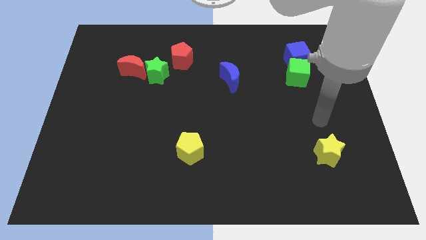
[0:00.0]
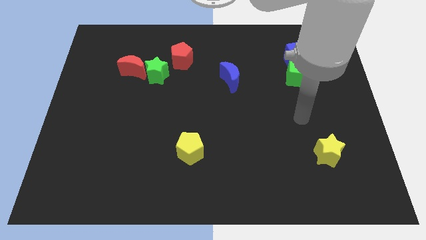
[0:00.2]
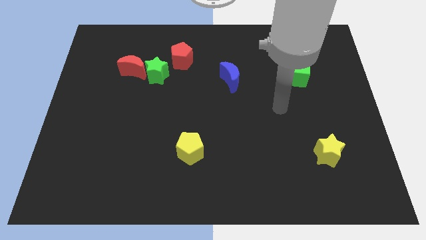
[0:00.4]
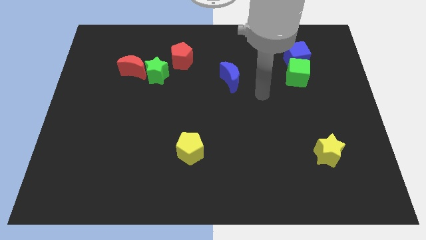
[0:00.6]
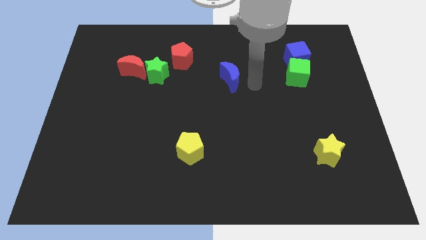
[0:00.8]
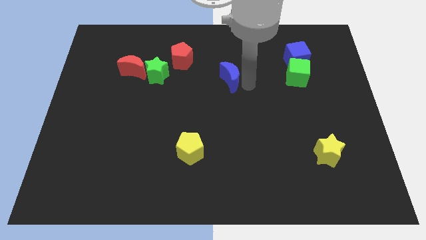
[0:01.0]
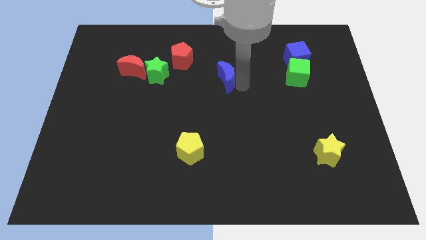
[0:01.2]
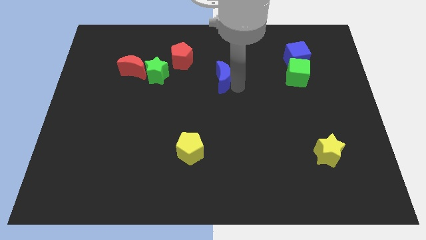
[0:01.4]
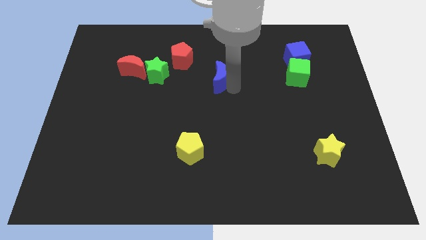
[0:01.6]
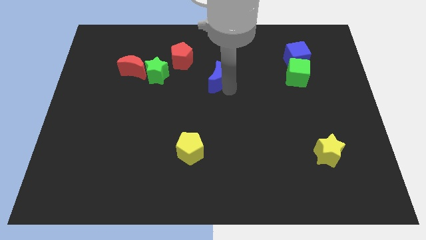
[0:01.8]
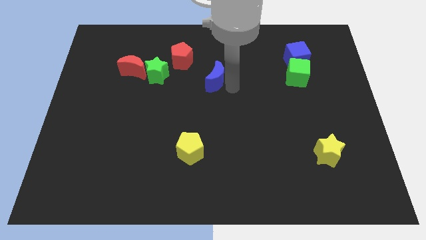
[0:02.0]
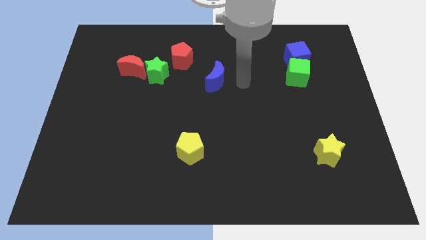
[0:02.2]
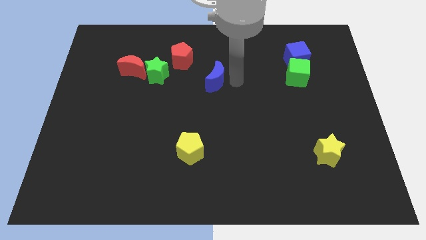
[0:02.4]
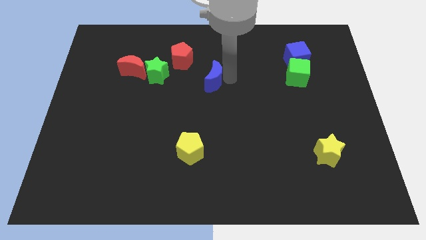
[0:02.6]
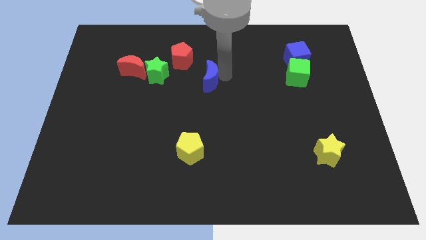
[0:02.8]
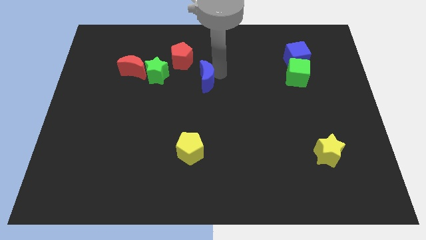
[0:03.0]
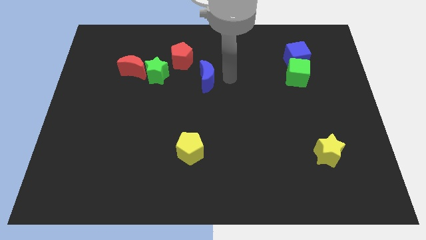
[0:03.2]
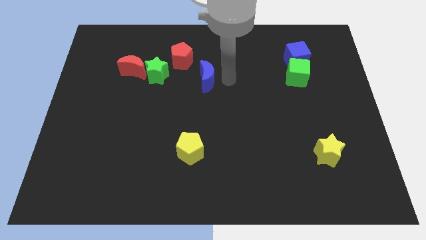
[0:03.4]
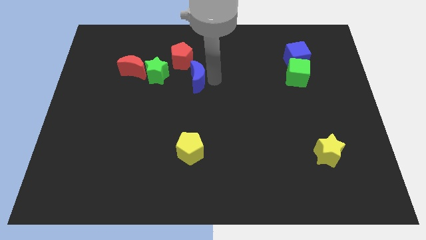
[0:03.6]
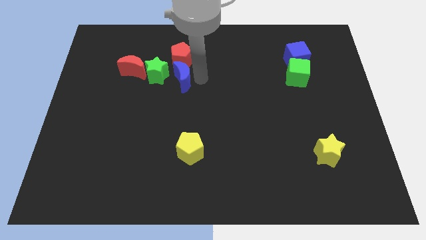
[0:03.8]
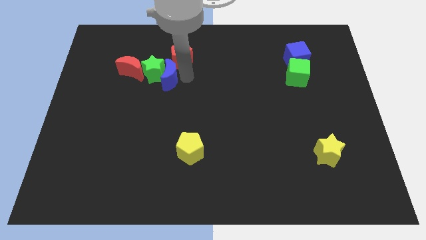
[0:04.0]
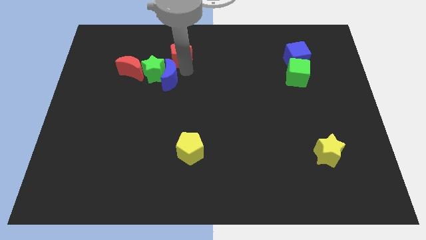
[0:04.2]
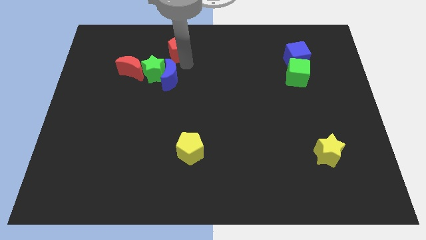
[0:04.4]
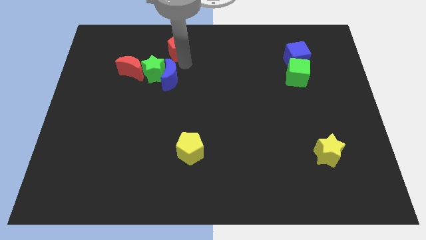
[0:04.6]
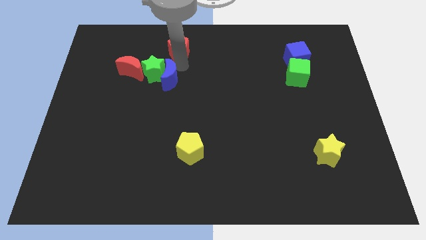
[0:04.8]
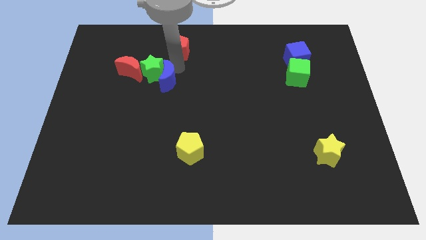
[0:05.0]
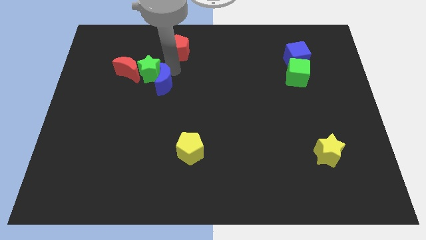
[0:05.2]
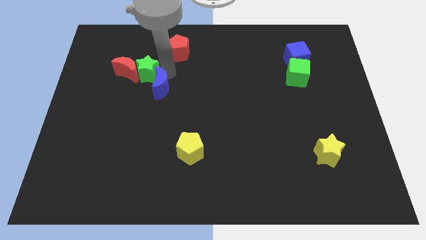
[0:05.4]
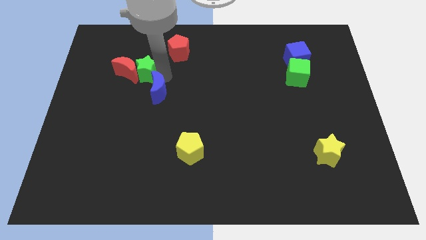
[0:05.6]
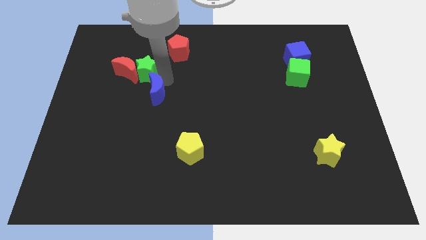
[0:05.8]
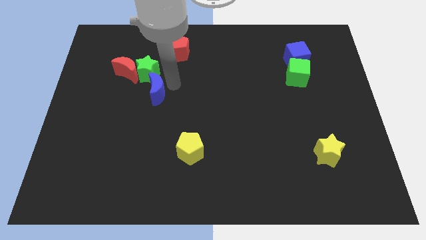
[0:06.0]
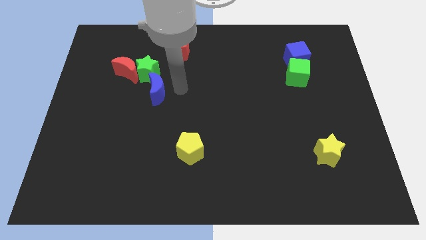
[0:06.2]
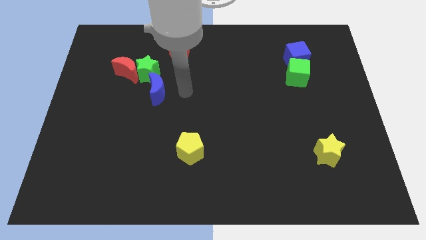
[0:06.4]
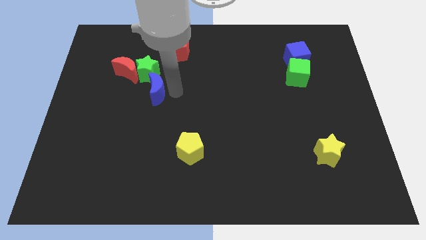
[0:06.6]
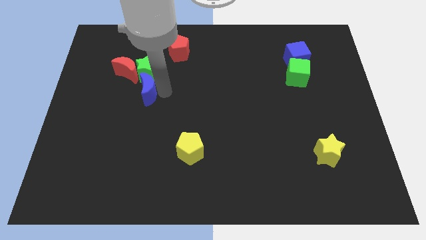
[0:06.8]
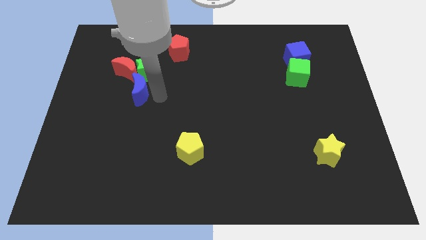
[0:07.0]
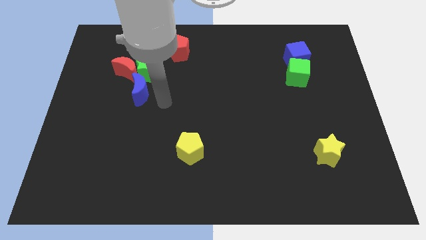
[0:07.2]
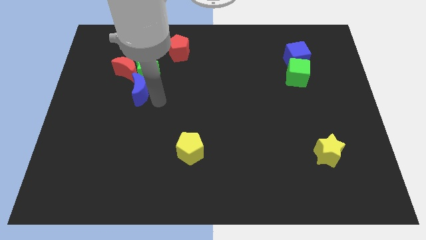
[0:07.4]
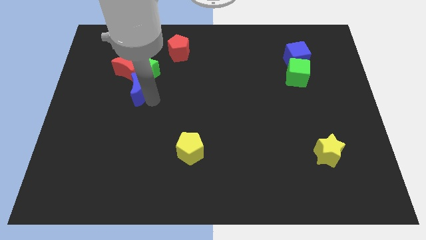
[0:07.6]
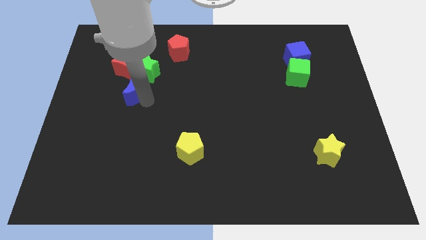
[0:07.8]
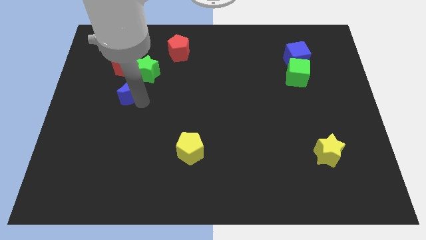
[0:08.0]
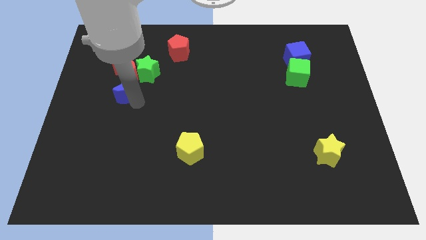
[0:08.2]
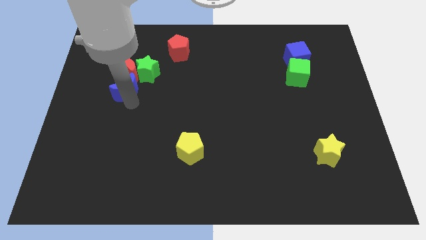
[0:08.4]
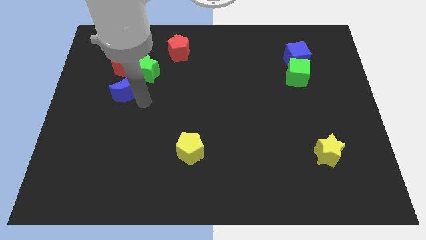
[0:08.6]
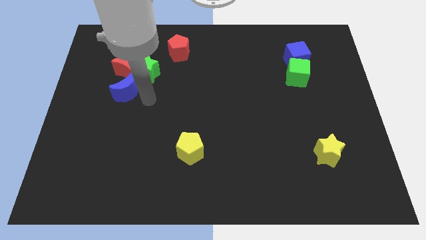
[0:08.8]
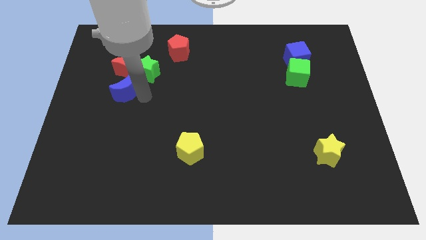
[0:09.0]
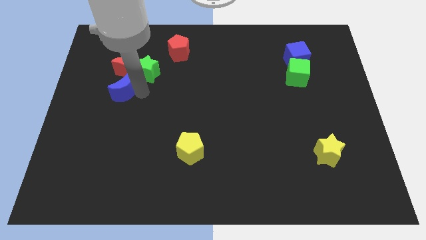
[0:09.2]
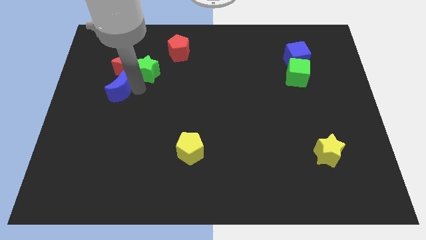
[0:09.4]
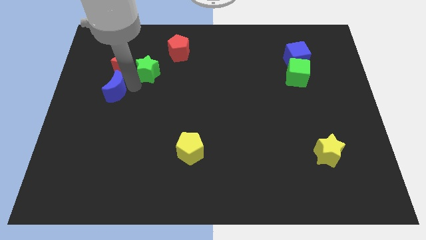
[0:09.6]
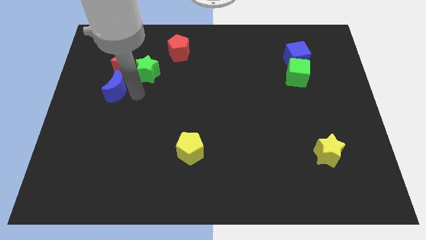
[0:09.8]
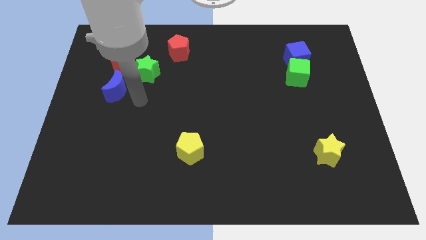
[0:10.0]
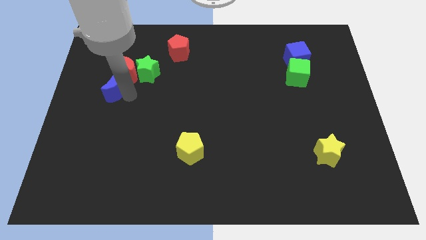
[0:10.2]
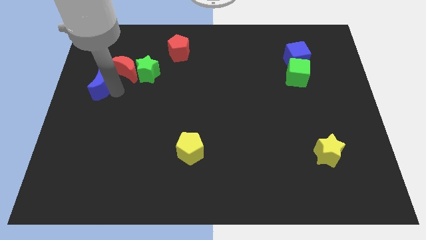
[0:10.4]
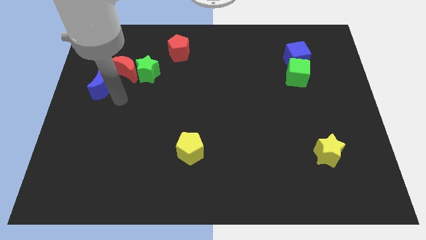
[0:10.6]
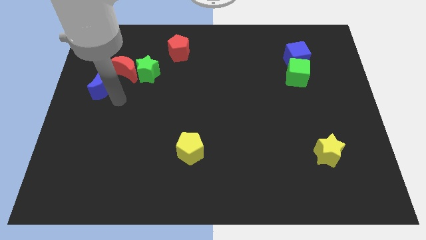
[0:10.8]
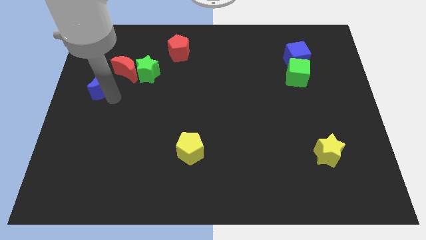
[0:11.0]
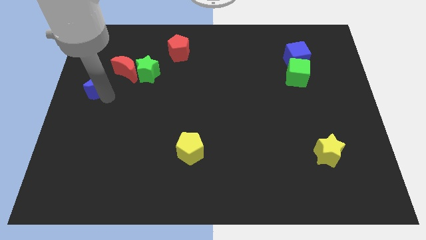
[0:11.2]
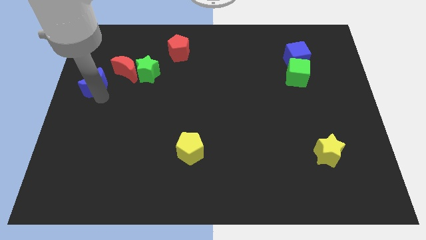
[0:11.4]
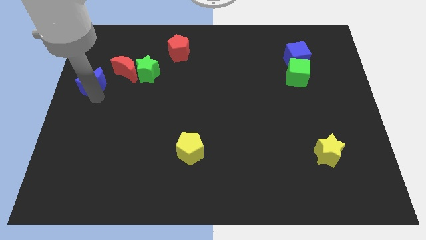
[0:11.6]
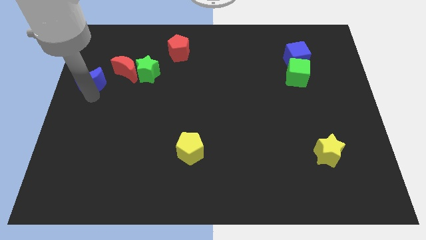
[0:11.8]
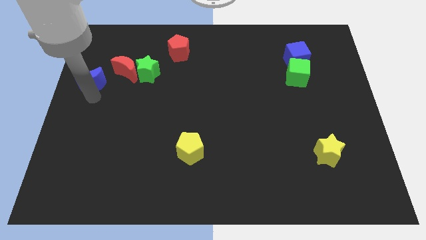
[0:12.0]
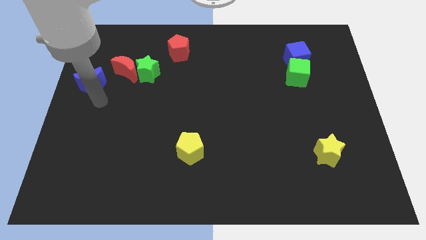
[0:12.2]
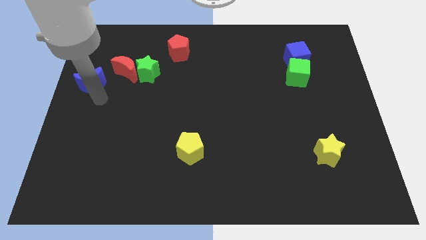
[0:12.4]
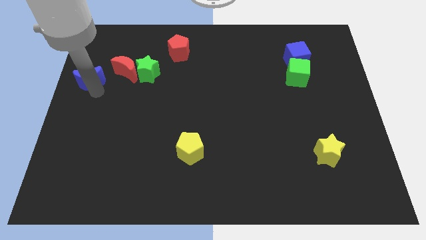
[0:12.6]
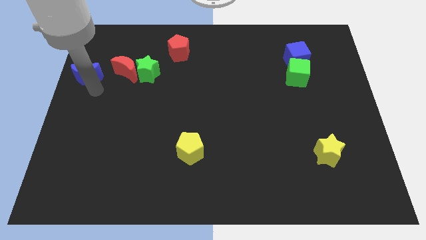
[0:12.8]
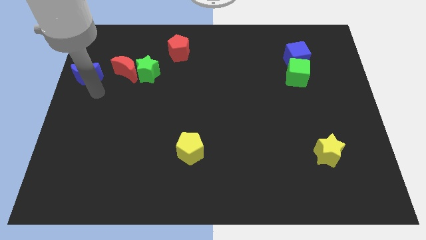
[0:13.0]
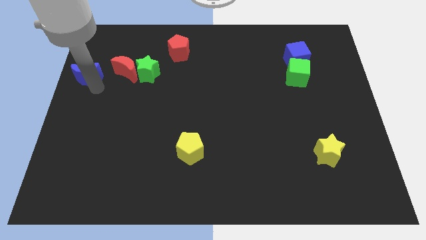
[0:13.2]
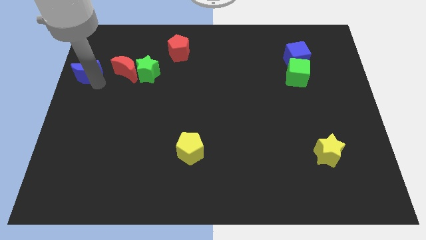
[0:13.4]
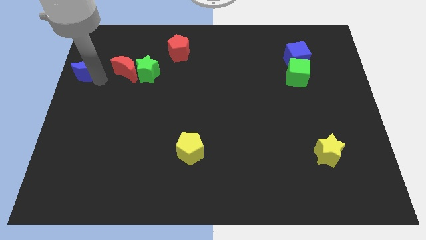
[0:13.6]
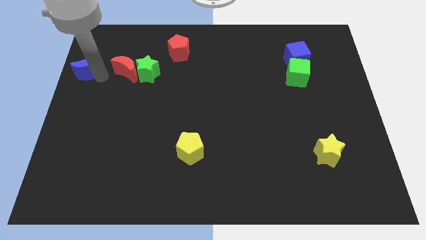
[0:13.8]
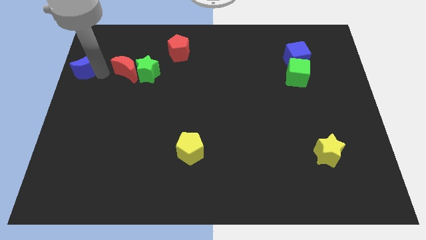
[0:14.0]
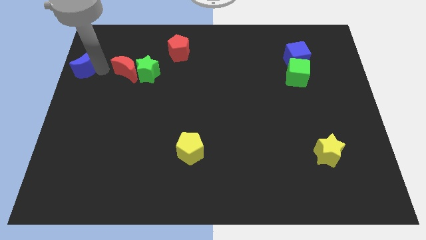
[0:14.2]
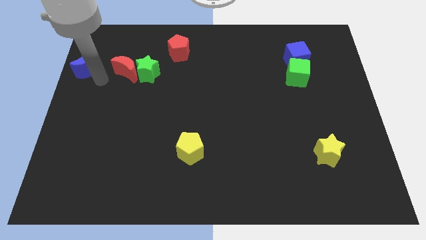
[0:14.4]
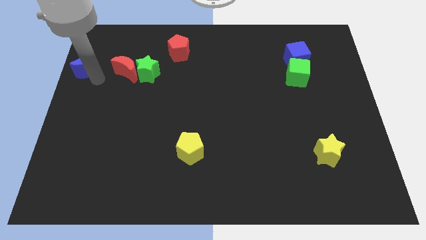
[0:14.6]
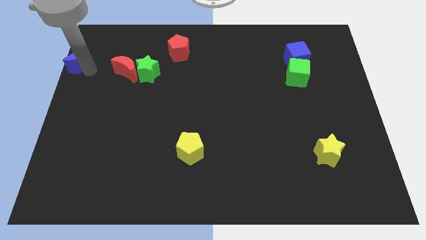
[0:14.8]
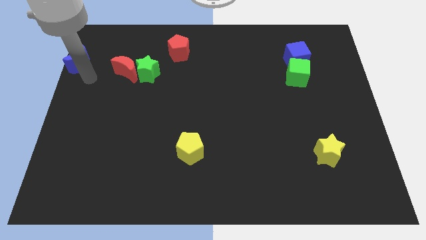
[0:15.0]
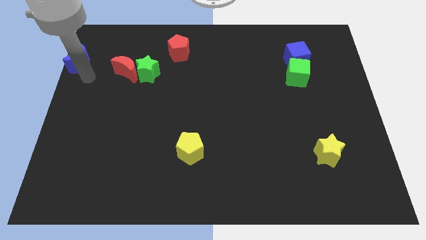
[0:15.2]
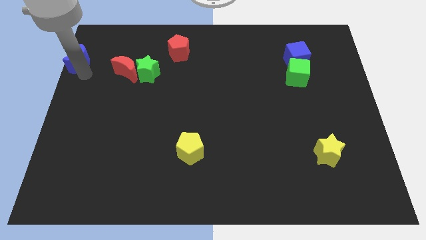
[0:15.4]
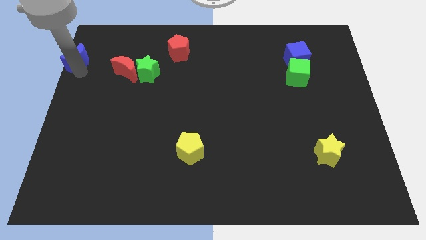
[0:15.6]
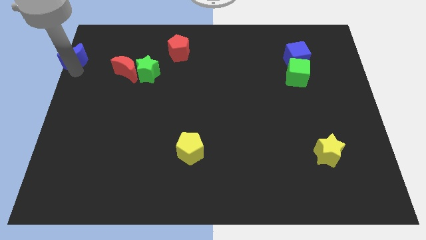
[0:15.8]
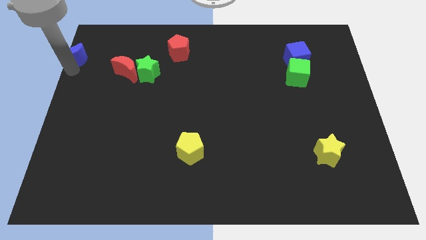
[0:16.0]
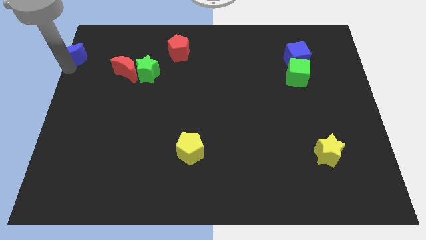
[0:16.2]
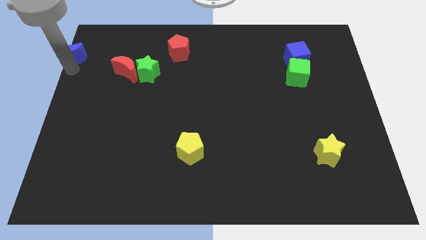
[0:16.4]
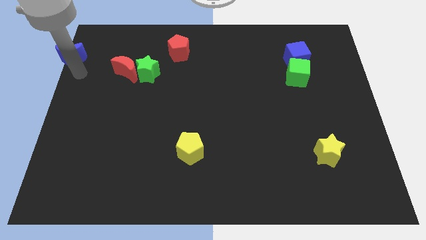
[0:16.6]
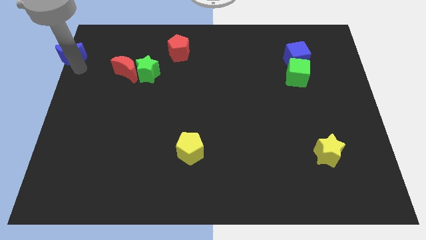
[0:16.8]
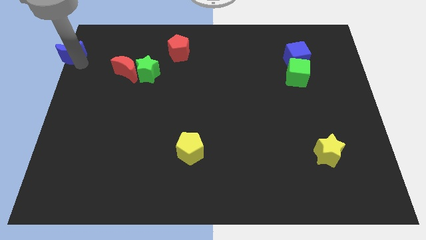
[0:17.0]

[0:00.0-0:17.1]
put the blue moon to the top left of the board
